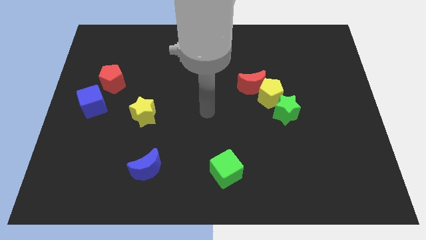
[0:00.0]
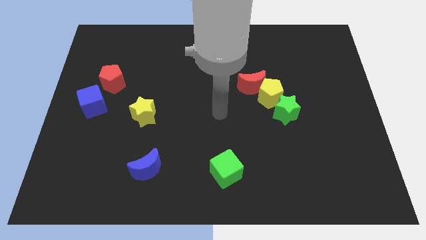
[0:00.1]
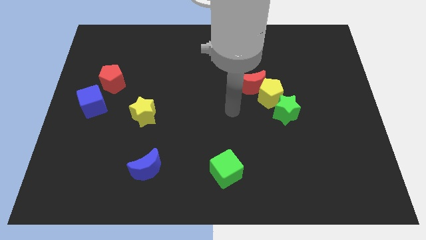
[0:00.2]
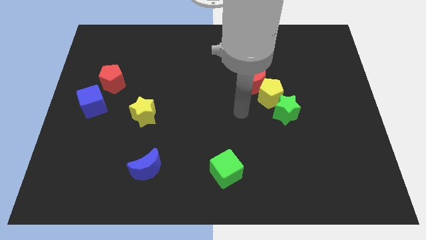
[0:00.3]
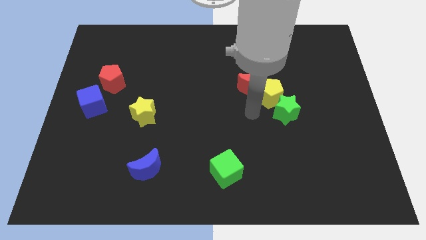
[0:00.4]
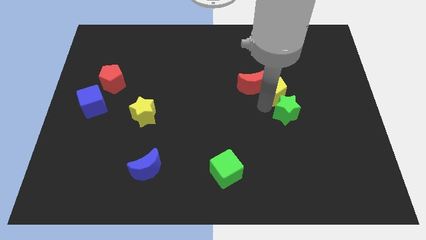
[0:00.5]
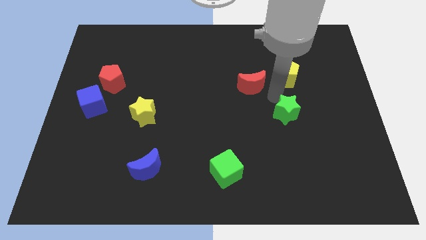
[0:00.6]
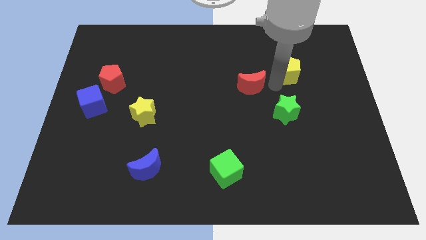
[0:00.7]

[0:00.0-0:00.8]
pull the red moon apart from the yellow pentagon

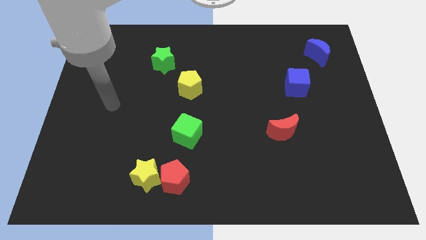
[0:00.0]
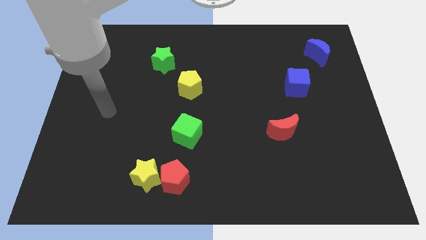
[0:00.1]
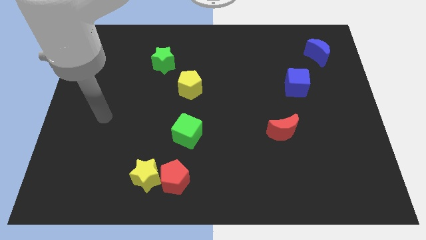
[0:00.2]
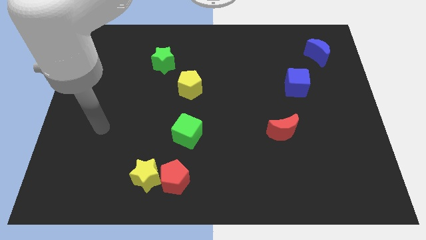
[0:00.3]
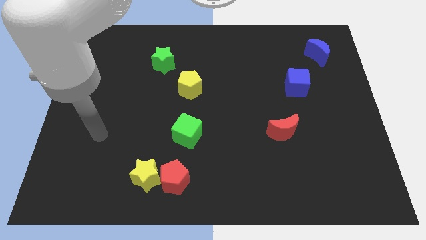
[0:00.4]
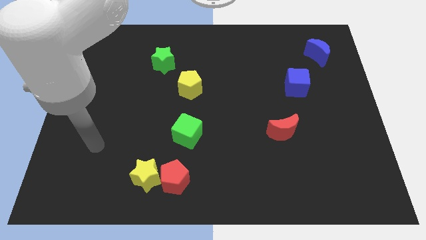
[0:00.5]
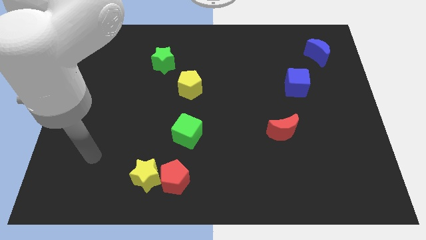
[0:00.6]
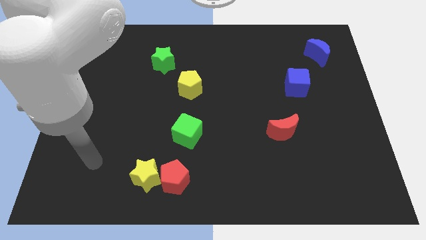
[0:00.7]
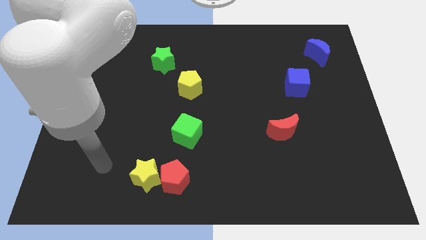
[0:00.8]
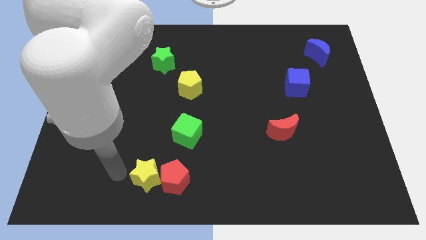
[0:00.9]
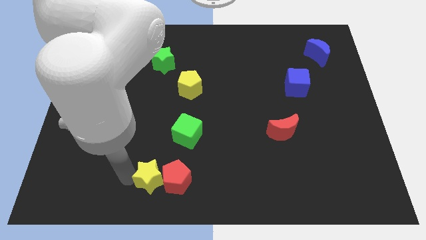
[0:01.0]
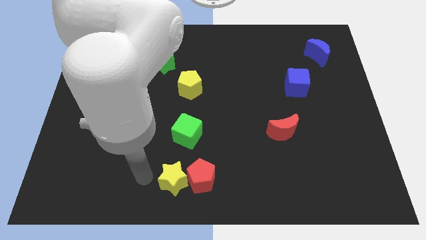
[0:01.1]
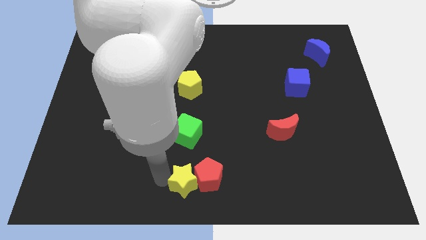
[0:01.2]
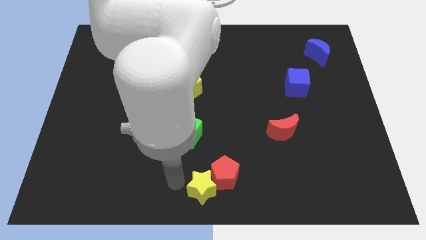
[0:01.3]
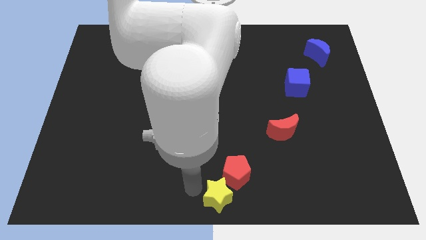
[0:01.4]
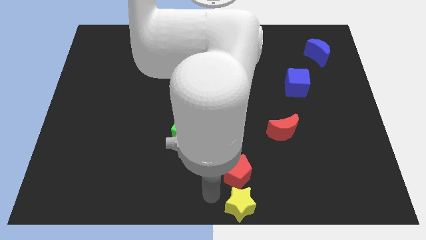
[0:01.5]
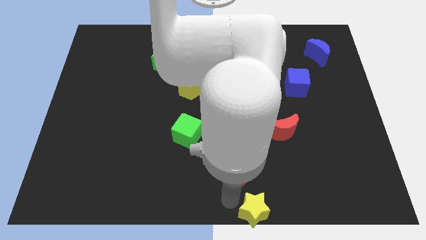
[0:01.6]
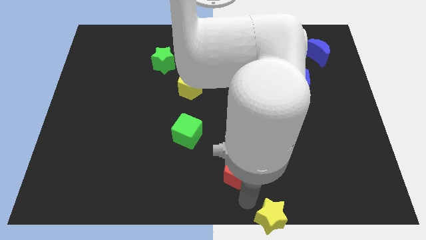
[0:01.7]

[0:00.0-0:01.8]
move the red pentagon away from the yellow star

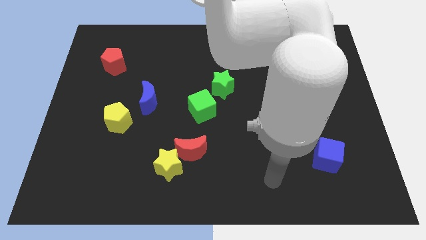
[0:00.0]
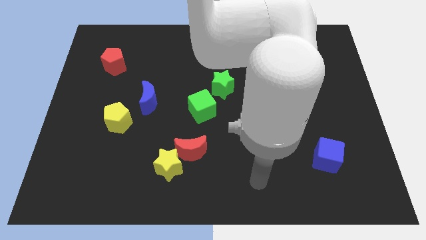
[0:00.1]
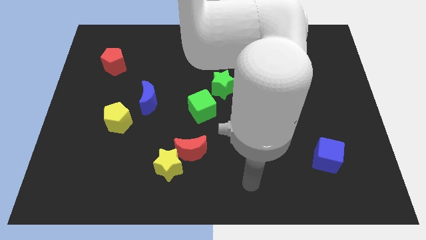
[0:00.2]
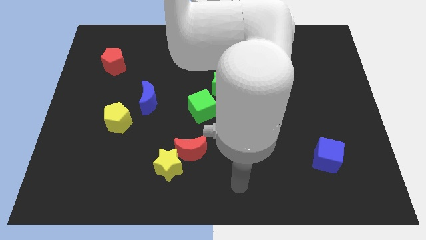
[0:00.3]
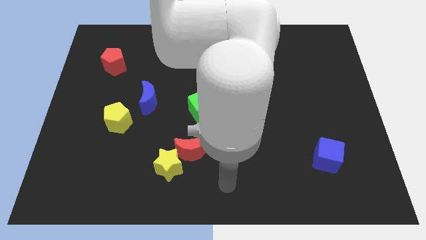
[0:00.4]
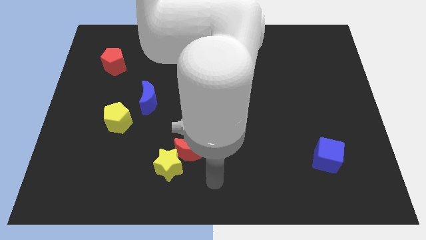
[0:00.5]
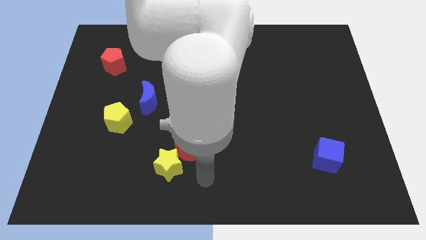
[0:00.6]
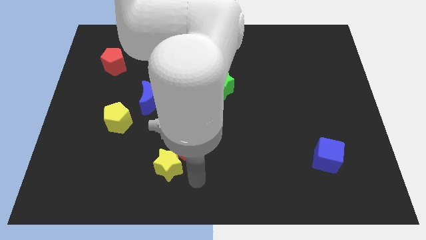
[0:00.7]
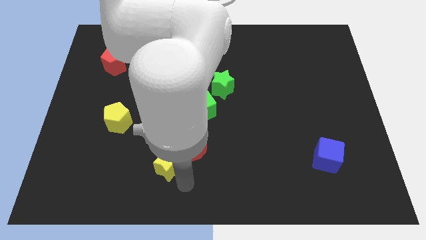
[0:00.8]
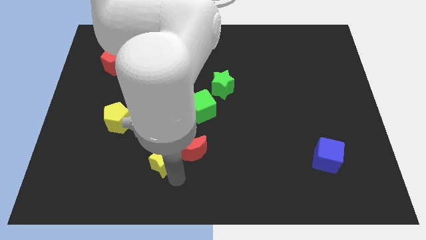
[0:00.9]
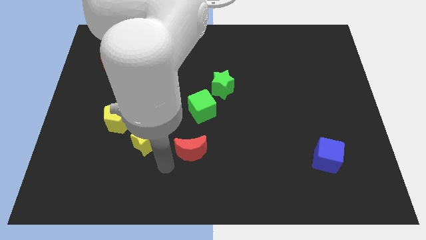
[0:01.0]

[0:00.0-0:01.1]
pull the red moon apart from the yellow star

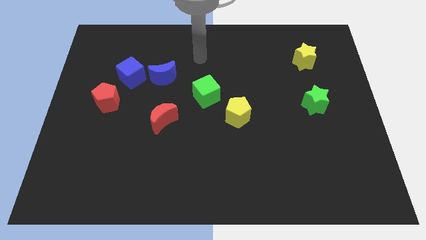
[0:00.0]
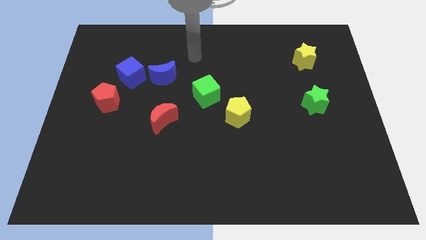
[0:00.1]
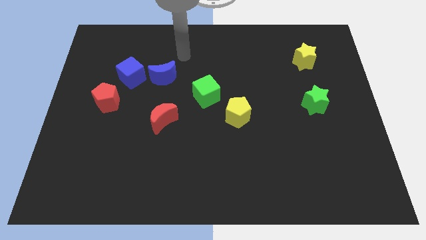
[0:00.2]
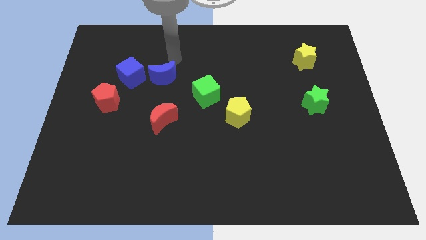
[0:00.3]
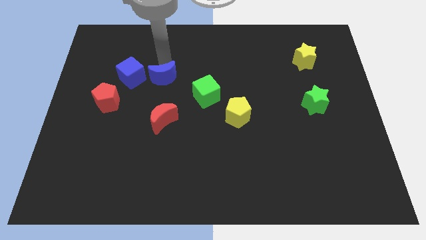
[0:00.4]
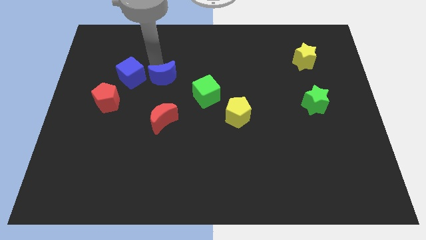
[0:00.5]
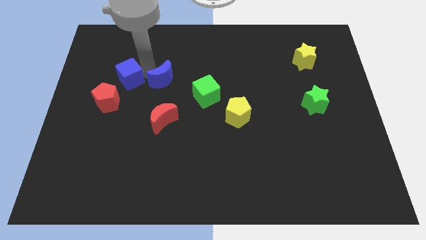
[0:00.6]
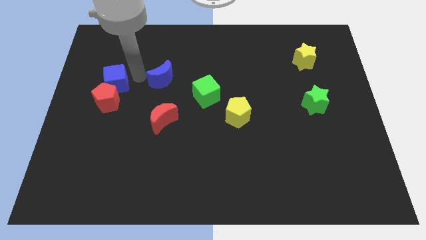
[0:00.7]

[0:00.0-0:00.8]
separate the blue moon from the blue cube

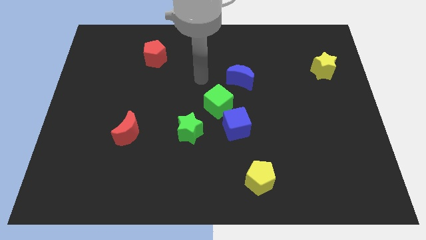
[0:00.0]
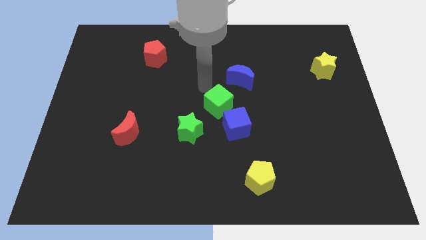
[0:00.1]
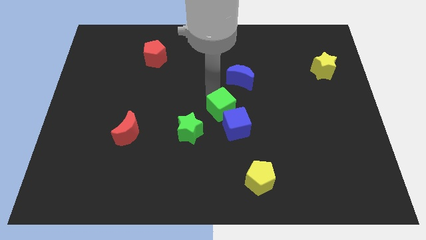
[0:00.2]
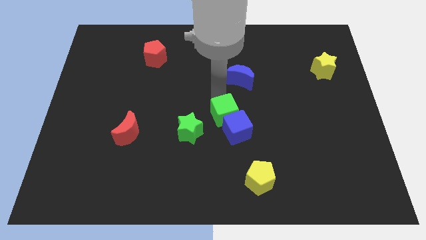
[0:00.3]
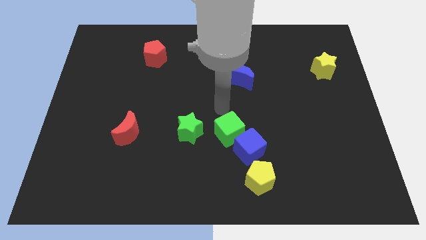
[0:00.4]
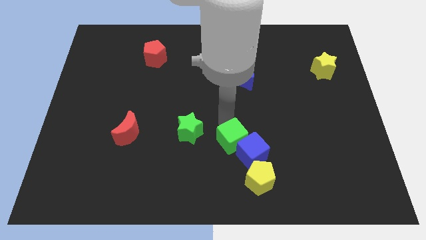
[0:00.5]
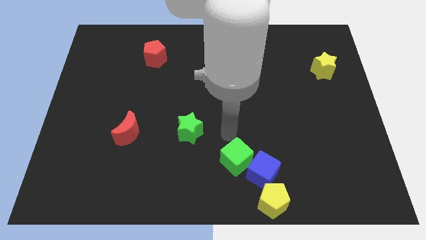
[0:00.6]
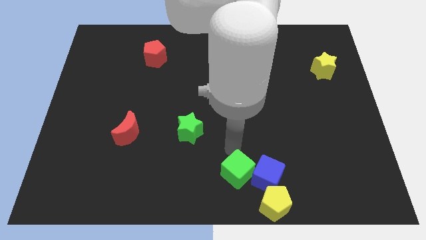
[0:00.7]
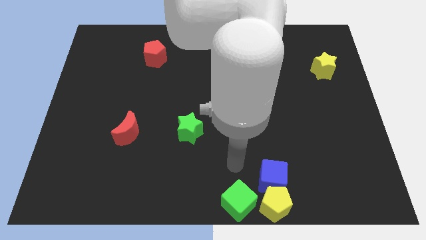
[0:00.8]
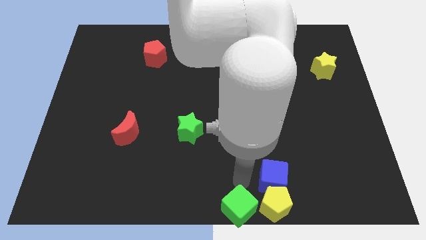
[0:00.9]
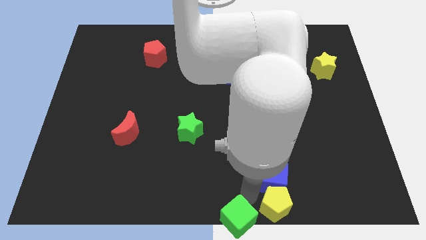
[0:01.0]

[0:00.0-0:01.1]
separate the blue cube from the green cube

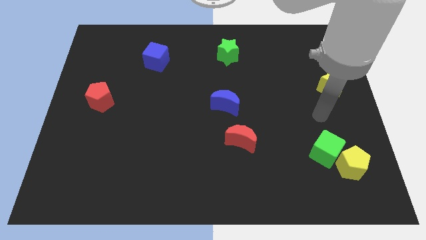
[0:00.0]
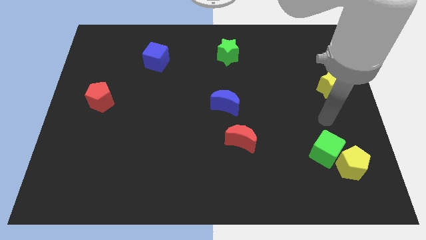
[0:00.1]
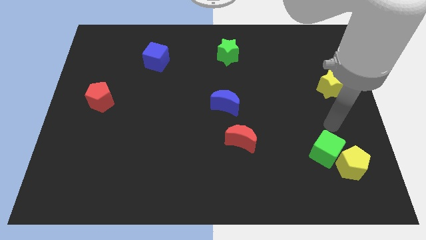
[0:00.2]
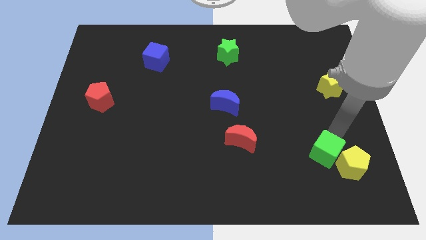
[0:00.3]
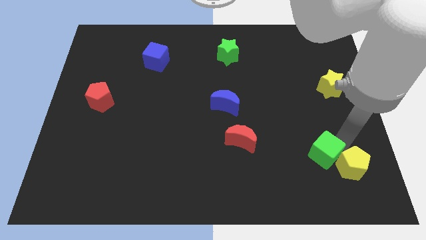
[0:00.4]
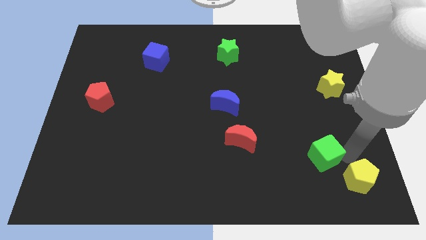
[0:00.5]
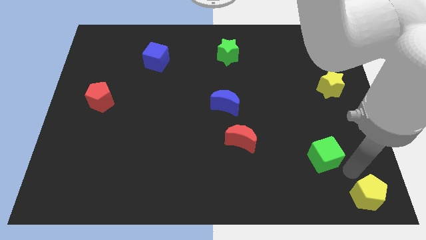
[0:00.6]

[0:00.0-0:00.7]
pull the green cube apart from the yellow pentagon

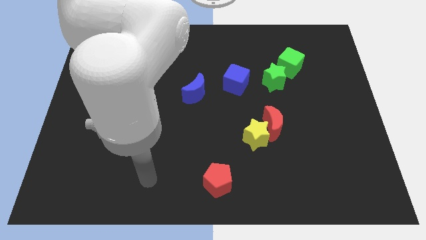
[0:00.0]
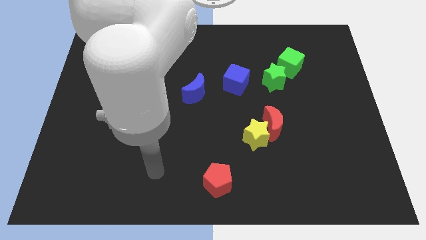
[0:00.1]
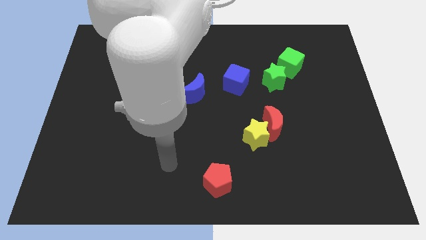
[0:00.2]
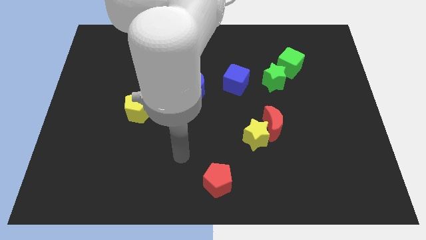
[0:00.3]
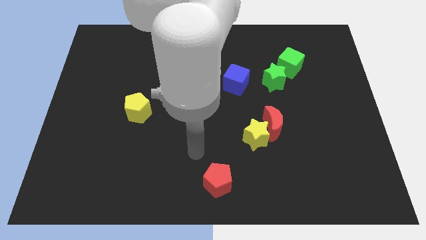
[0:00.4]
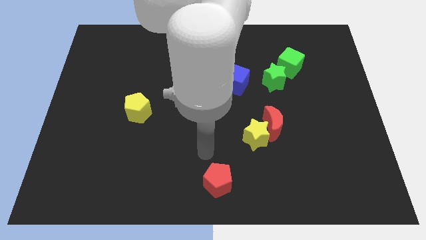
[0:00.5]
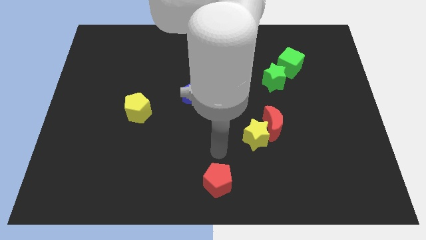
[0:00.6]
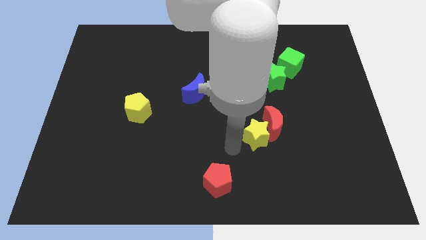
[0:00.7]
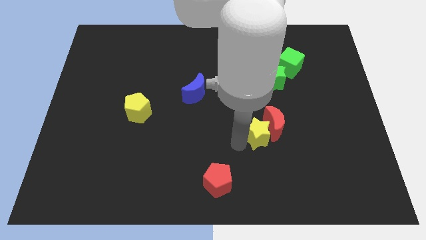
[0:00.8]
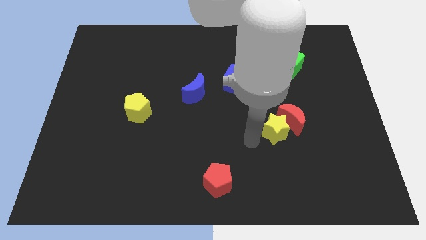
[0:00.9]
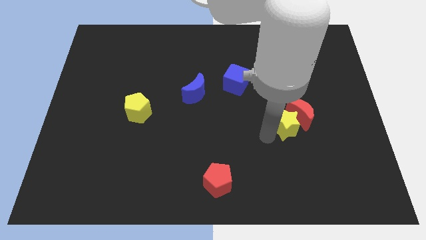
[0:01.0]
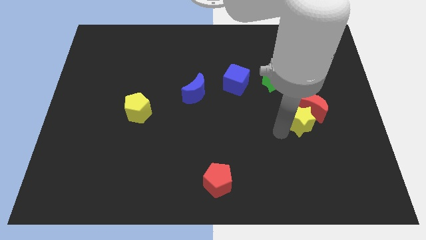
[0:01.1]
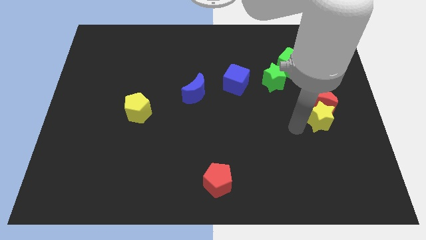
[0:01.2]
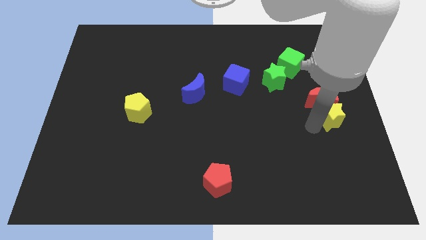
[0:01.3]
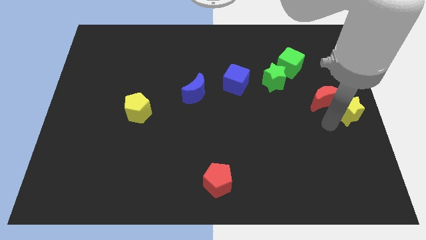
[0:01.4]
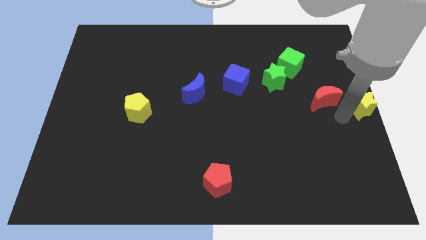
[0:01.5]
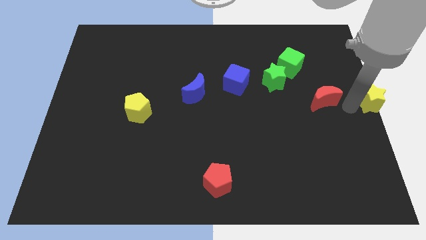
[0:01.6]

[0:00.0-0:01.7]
move the red moon away from the yellow star

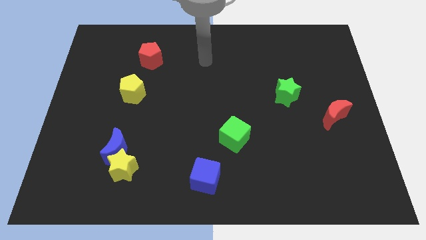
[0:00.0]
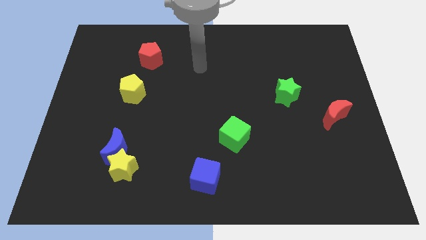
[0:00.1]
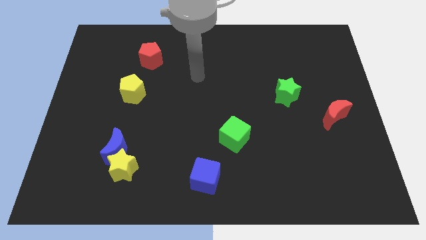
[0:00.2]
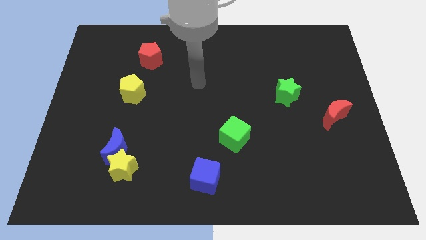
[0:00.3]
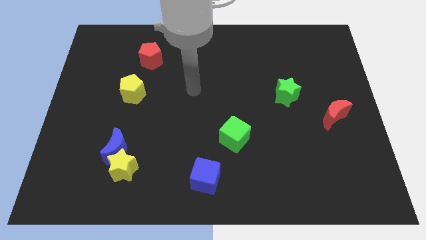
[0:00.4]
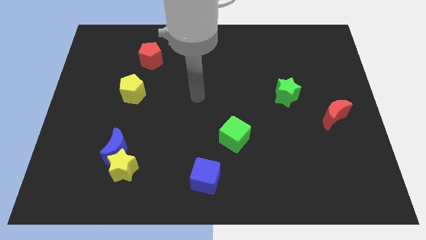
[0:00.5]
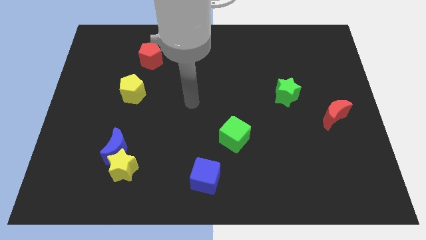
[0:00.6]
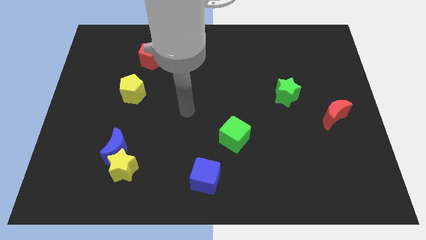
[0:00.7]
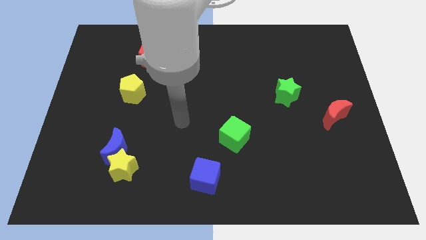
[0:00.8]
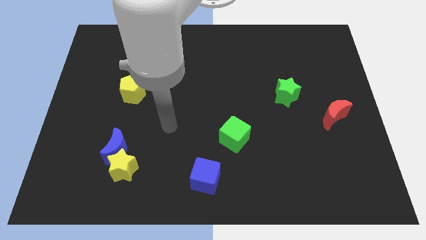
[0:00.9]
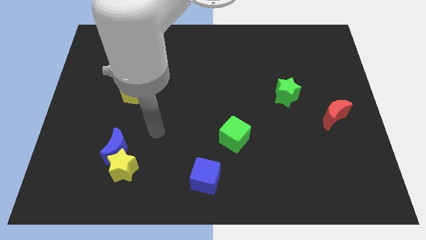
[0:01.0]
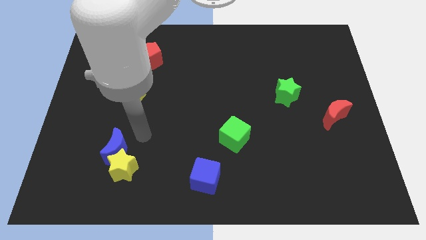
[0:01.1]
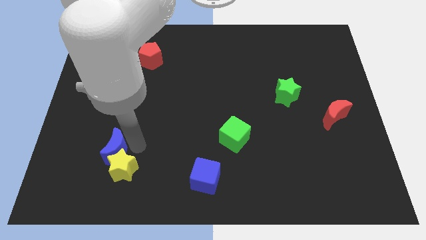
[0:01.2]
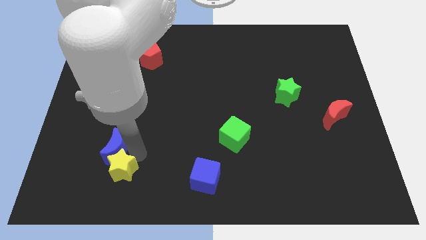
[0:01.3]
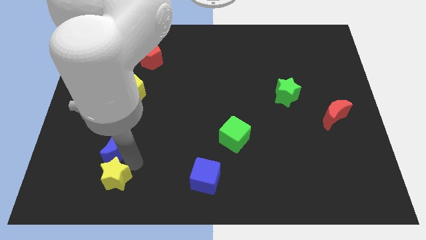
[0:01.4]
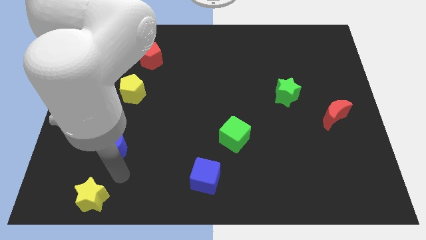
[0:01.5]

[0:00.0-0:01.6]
pull the blue moon apart from the yellow star
